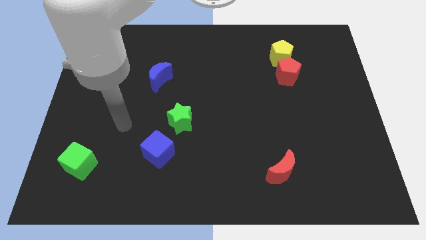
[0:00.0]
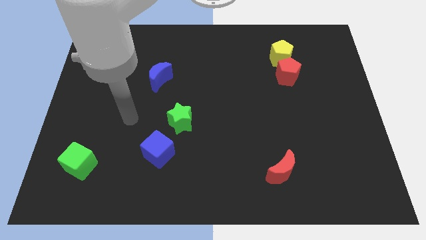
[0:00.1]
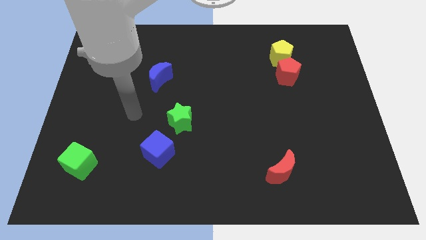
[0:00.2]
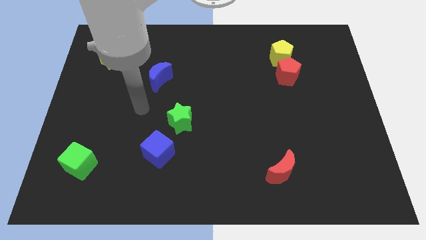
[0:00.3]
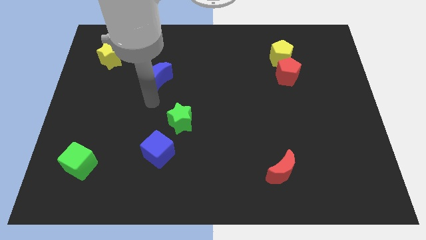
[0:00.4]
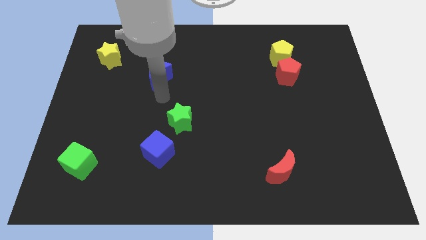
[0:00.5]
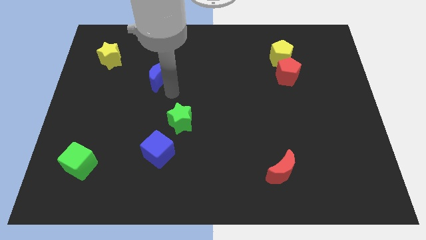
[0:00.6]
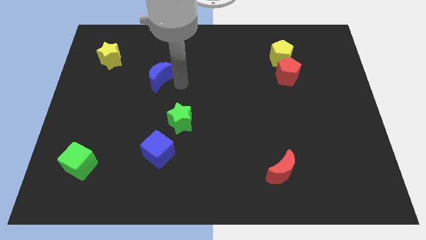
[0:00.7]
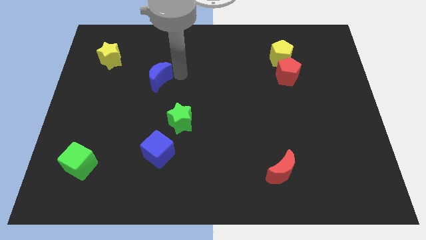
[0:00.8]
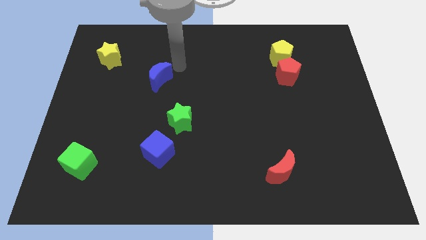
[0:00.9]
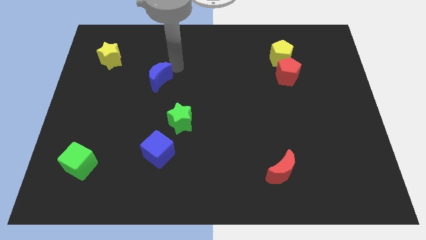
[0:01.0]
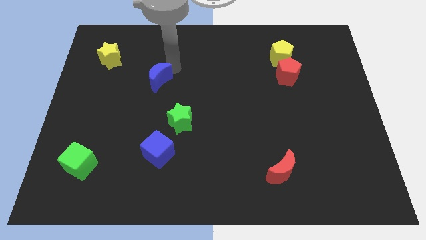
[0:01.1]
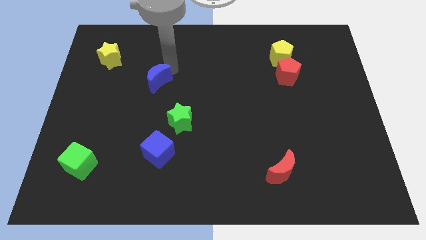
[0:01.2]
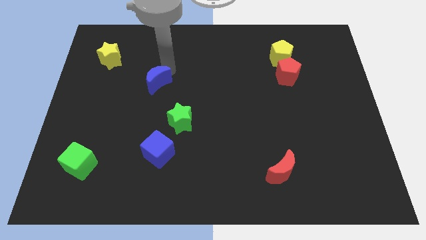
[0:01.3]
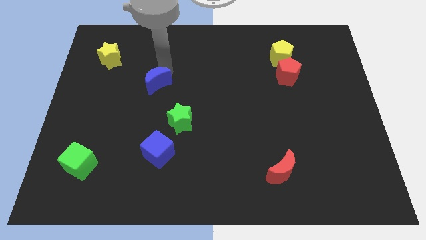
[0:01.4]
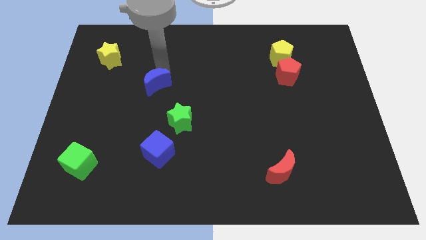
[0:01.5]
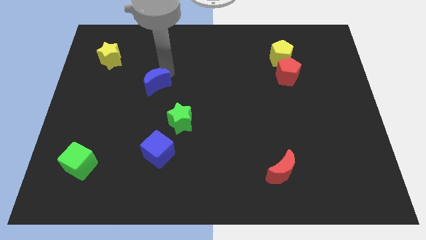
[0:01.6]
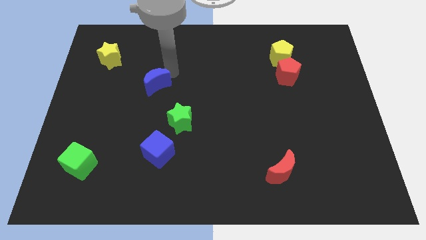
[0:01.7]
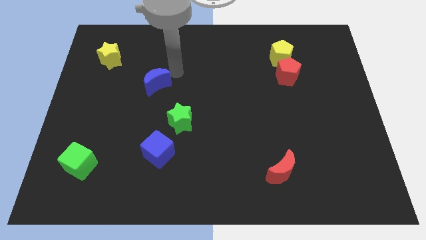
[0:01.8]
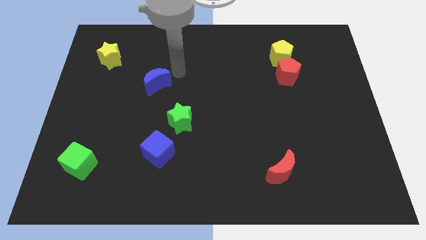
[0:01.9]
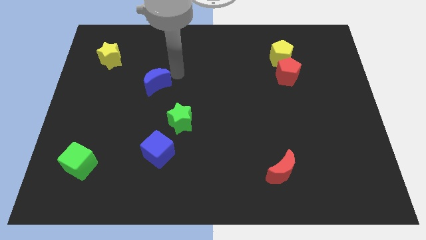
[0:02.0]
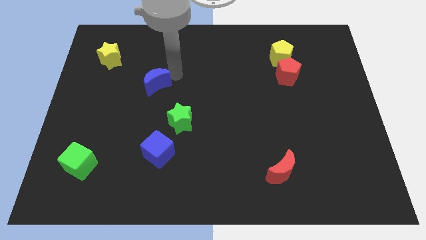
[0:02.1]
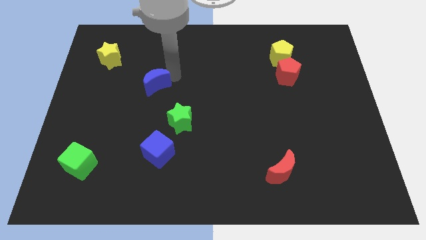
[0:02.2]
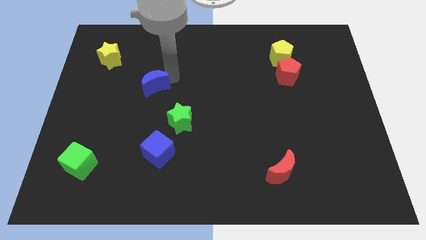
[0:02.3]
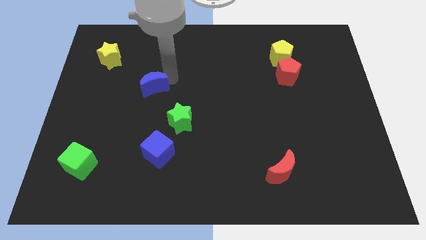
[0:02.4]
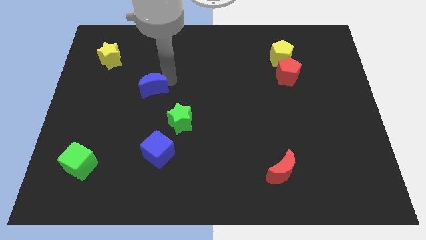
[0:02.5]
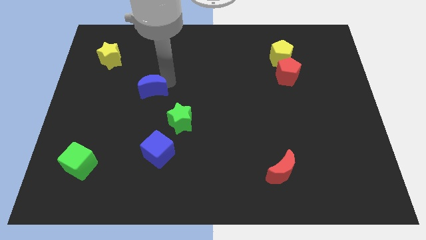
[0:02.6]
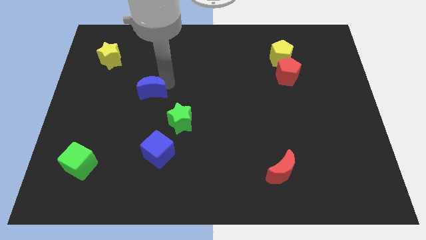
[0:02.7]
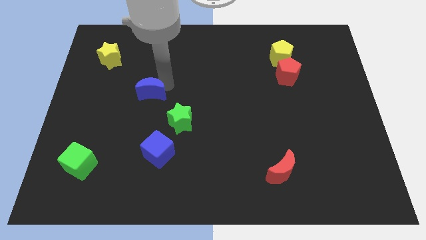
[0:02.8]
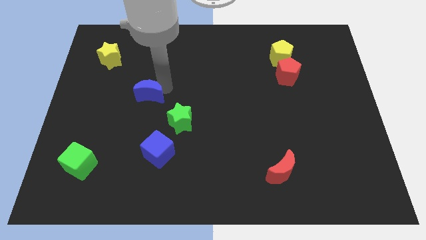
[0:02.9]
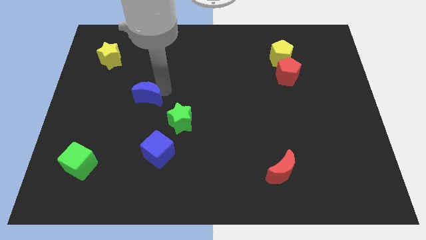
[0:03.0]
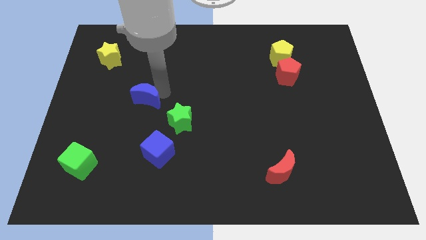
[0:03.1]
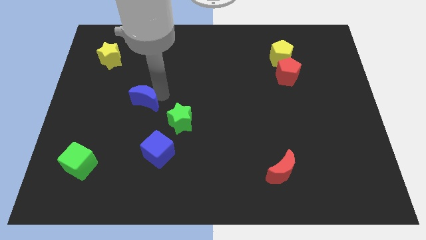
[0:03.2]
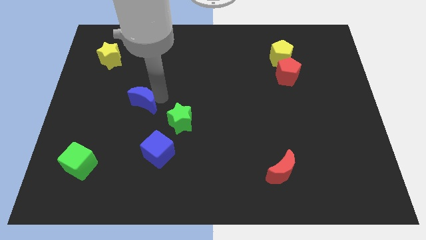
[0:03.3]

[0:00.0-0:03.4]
slide the blue moon a little diagonally downwards and left

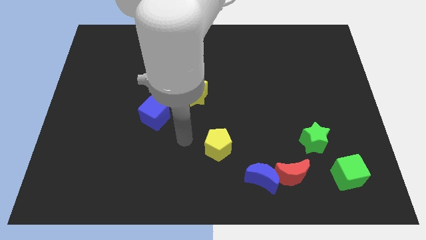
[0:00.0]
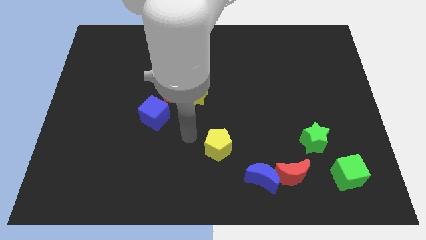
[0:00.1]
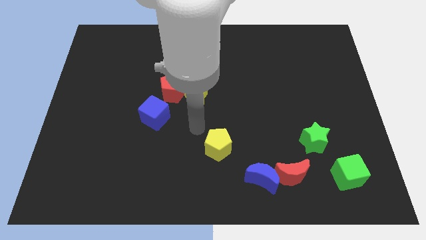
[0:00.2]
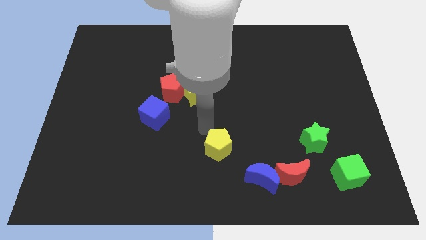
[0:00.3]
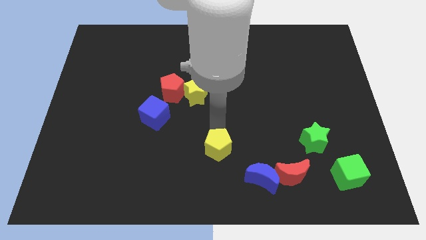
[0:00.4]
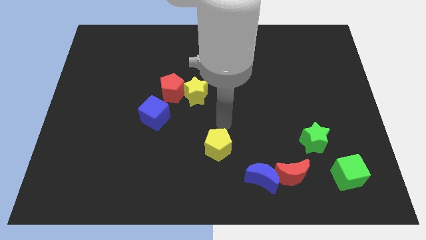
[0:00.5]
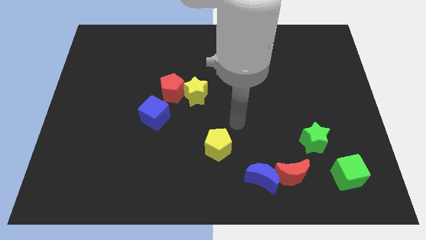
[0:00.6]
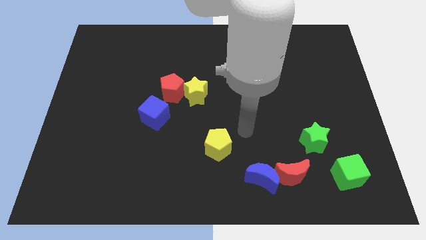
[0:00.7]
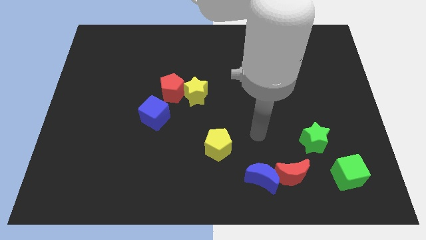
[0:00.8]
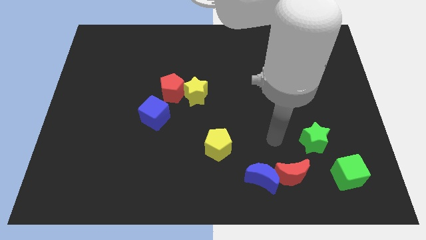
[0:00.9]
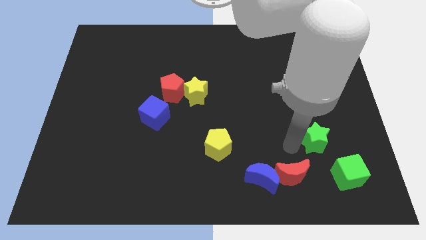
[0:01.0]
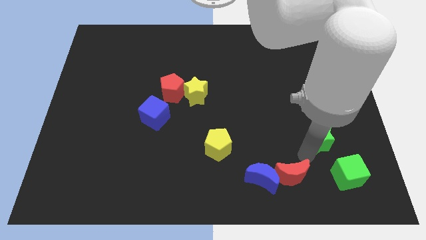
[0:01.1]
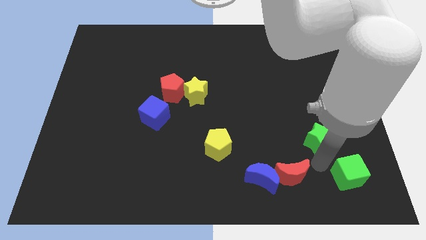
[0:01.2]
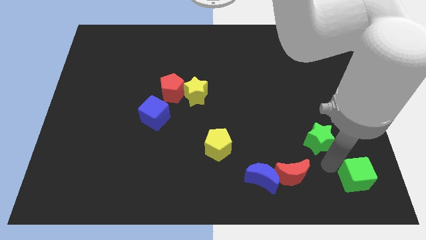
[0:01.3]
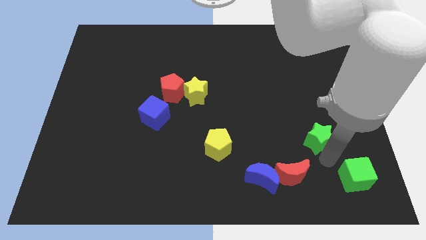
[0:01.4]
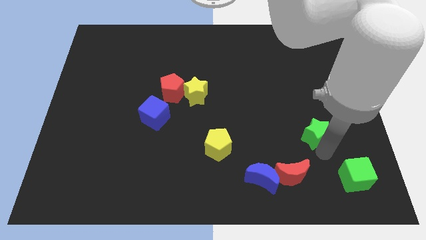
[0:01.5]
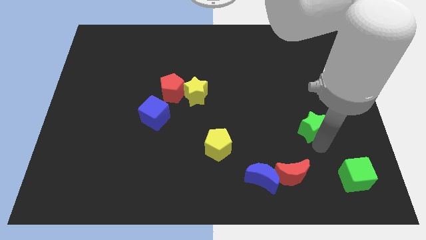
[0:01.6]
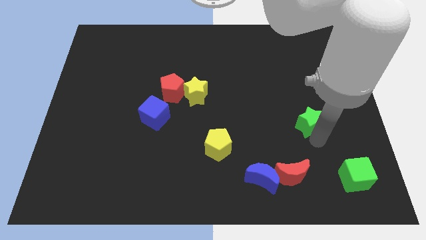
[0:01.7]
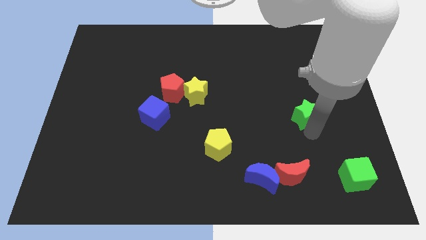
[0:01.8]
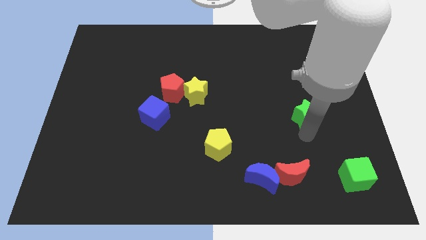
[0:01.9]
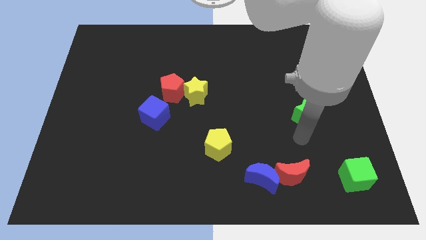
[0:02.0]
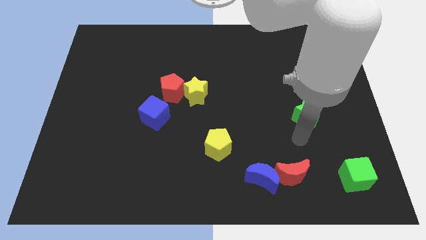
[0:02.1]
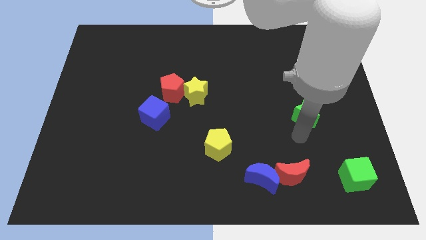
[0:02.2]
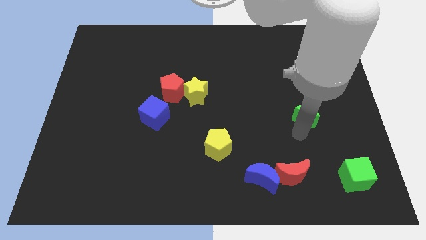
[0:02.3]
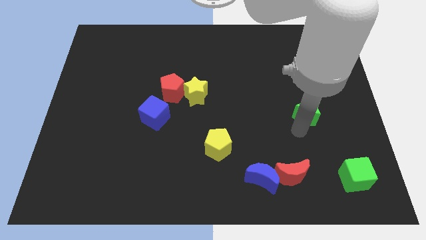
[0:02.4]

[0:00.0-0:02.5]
push the green star a bit upwards

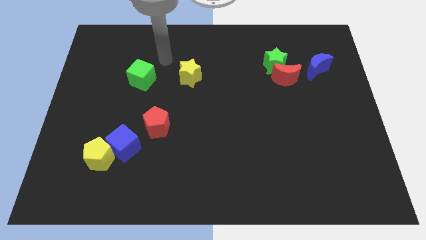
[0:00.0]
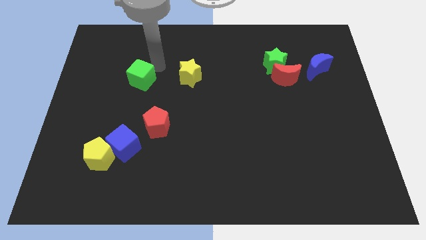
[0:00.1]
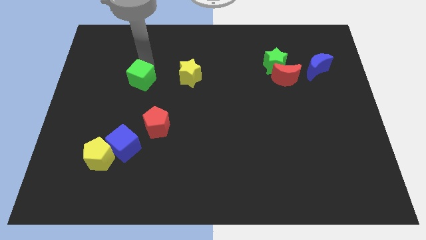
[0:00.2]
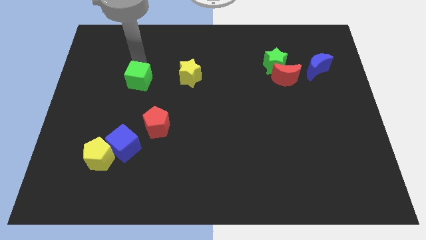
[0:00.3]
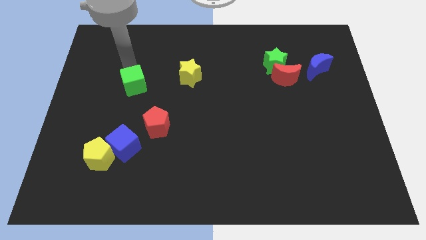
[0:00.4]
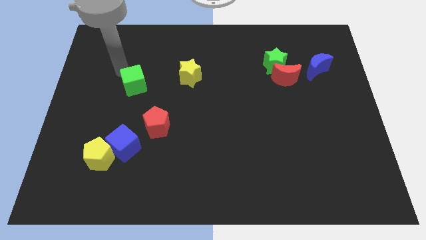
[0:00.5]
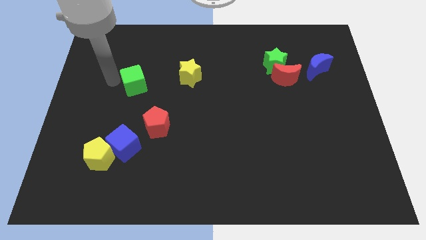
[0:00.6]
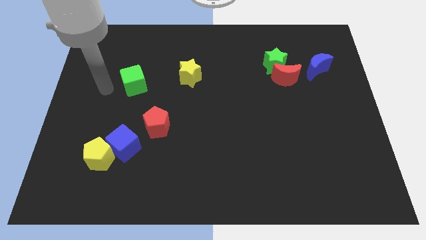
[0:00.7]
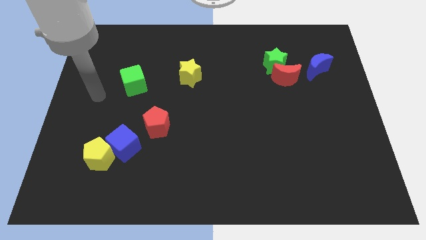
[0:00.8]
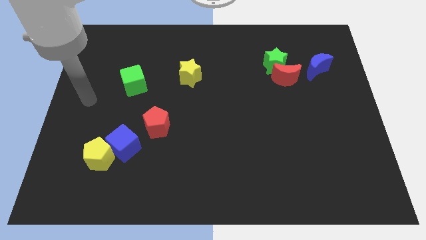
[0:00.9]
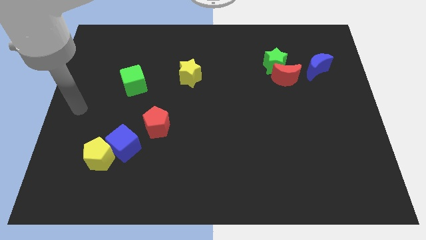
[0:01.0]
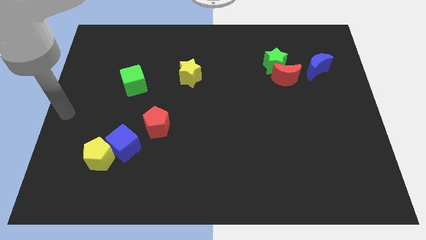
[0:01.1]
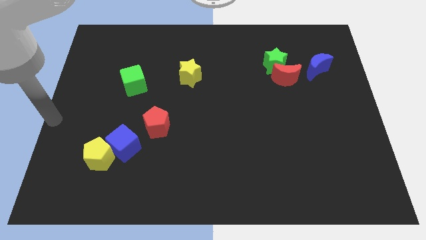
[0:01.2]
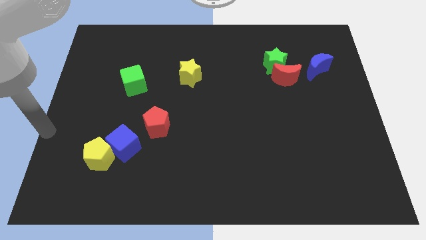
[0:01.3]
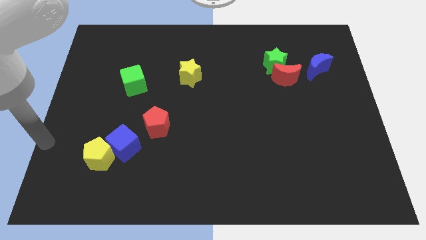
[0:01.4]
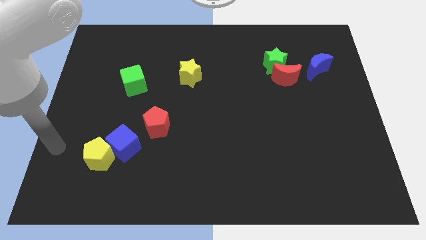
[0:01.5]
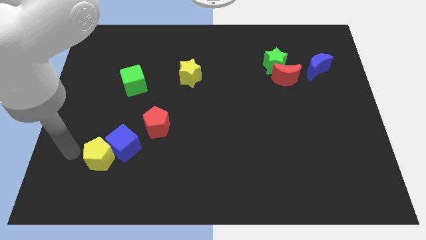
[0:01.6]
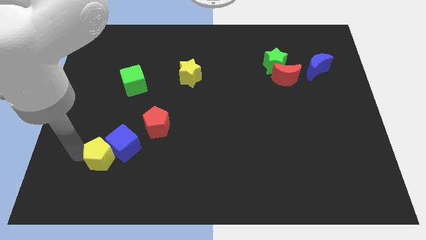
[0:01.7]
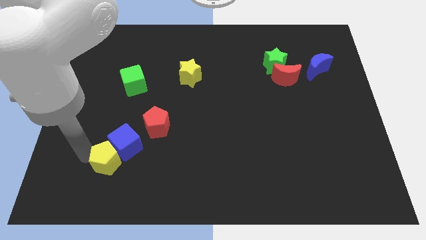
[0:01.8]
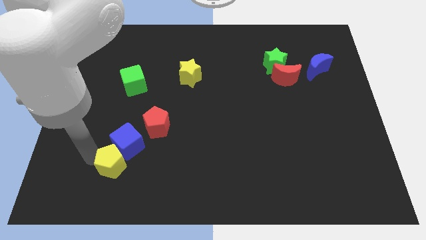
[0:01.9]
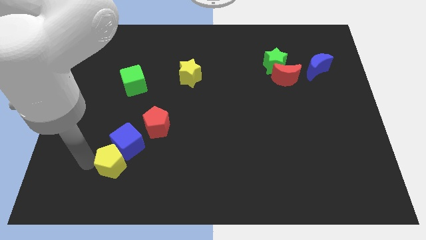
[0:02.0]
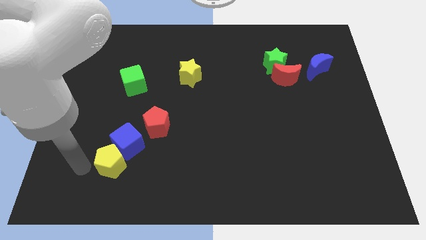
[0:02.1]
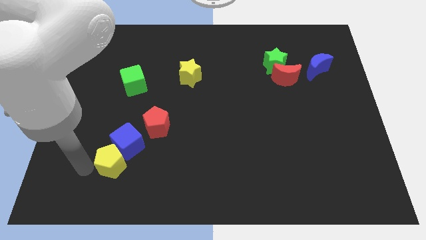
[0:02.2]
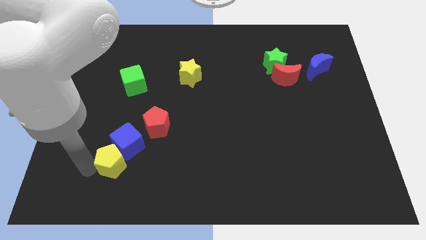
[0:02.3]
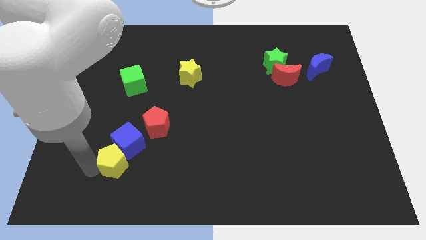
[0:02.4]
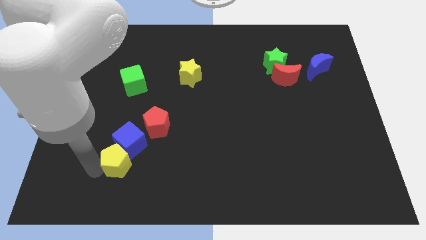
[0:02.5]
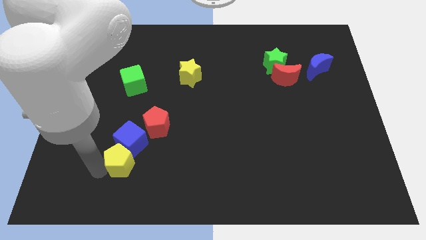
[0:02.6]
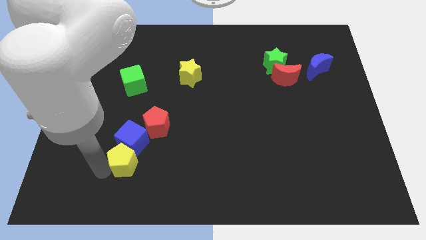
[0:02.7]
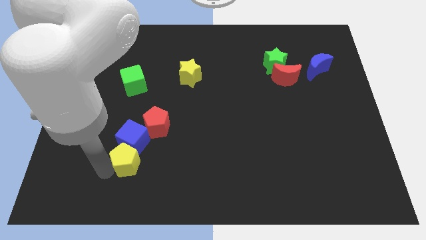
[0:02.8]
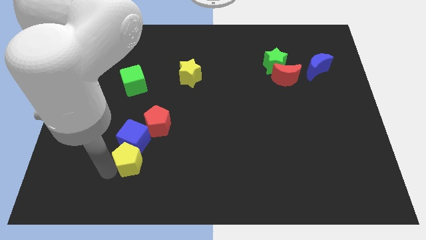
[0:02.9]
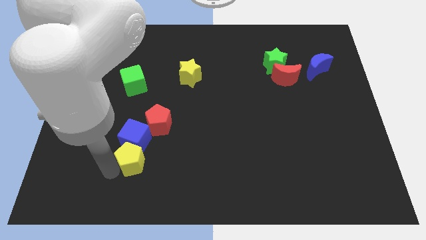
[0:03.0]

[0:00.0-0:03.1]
move the yellow pentagon right a bit
